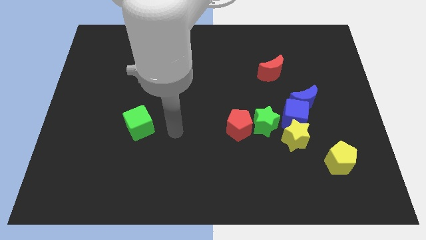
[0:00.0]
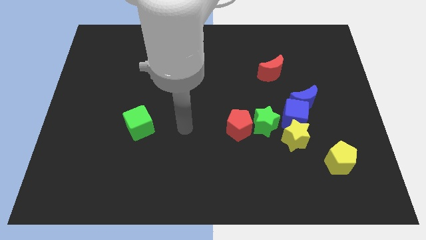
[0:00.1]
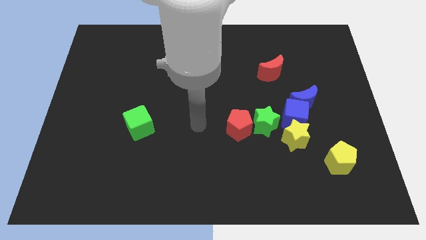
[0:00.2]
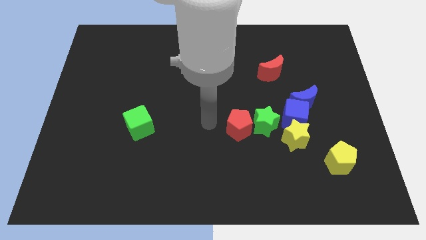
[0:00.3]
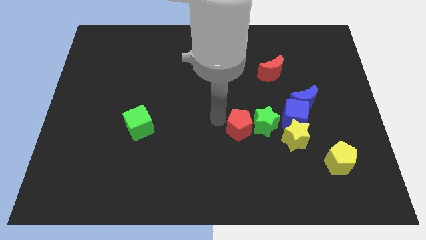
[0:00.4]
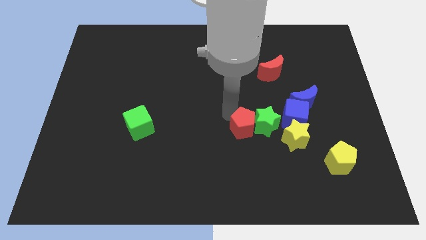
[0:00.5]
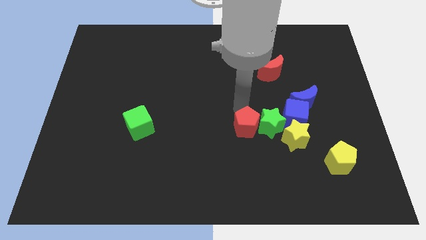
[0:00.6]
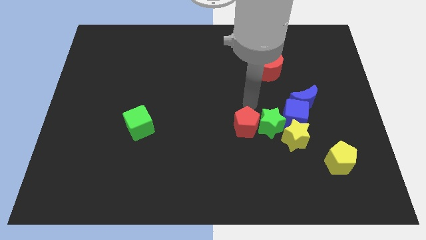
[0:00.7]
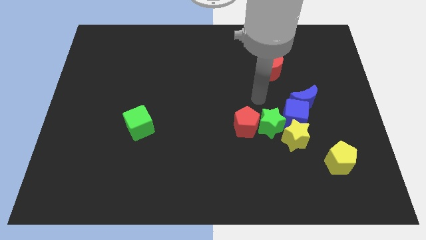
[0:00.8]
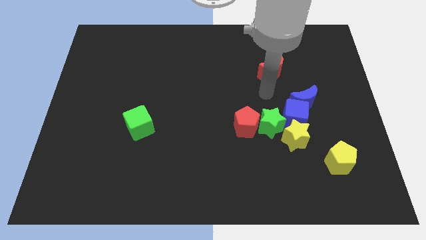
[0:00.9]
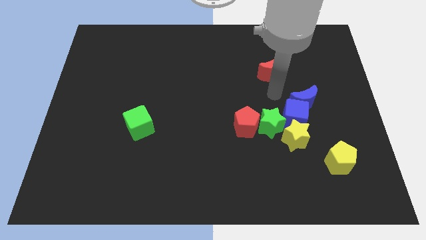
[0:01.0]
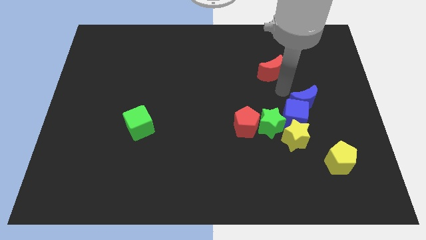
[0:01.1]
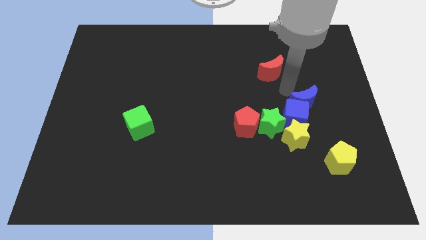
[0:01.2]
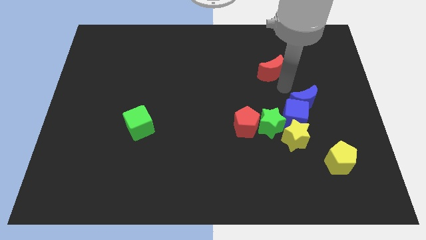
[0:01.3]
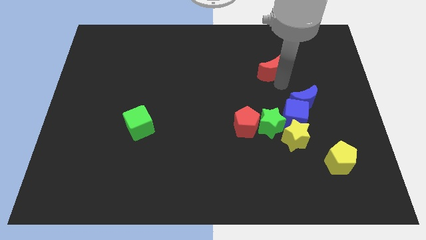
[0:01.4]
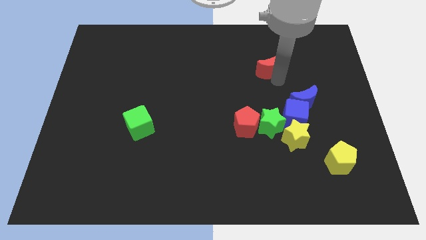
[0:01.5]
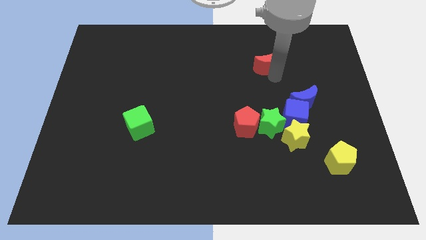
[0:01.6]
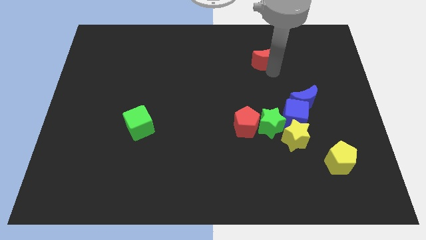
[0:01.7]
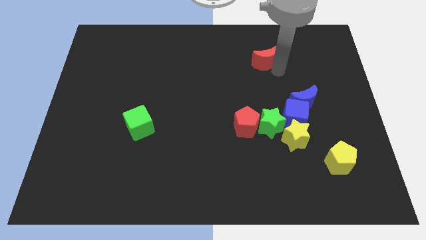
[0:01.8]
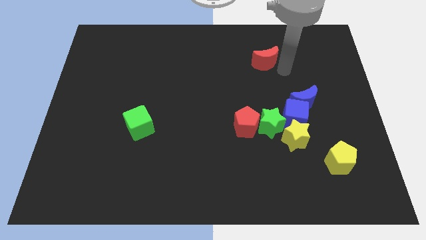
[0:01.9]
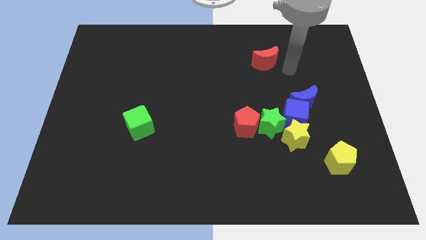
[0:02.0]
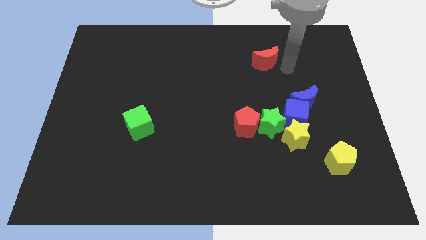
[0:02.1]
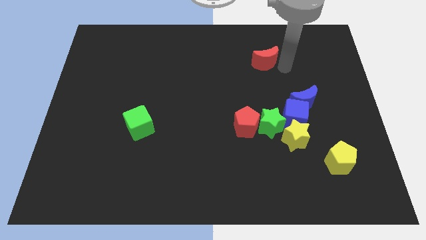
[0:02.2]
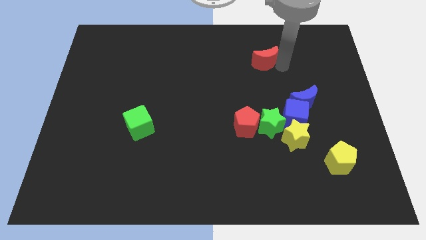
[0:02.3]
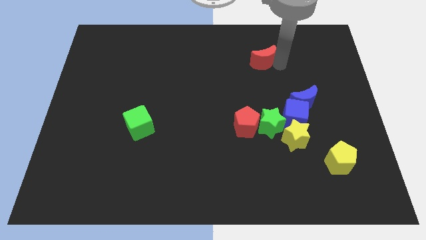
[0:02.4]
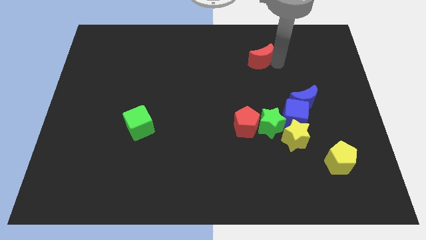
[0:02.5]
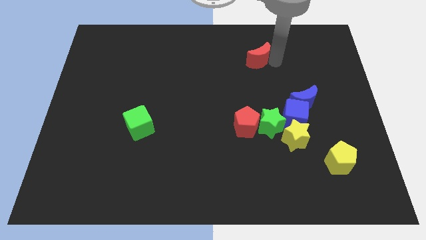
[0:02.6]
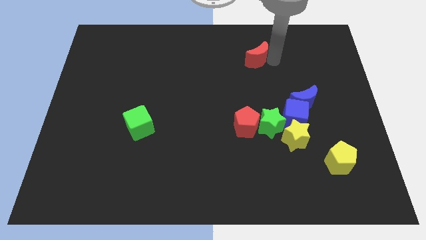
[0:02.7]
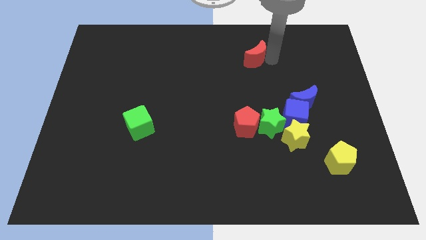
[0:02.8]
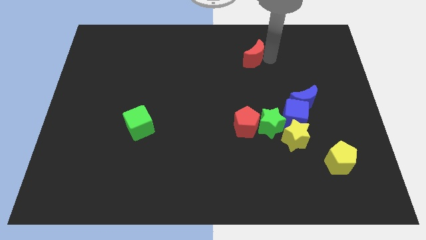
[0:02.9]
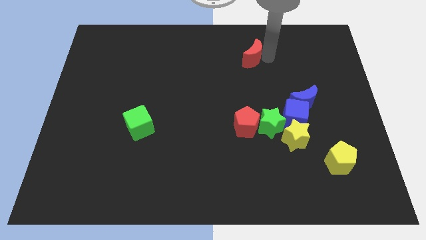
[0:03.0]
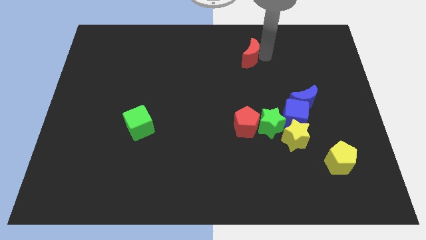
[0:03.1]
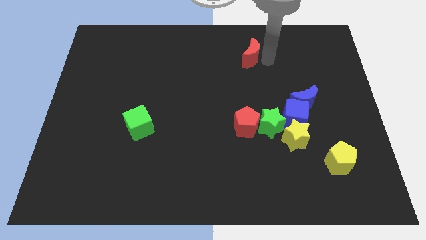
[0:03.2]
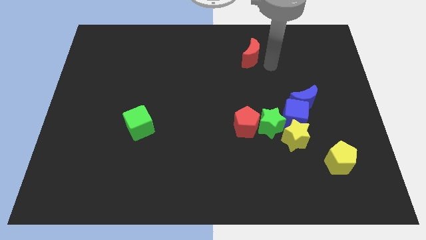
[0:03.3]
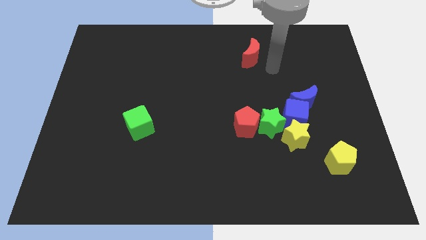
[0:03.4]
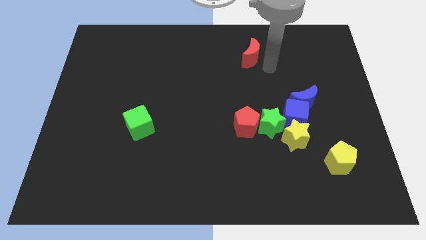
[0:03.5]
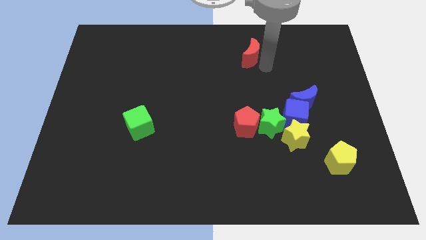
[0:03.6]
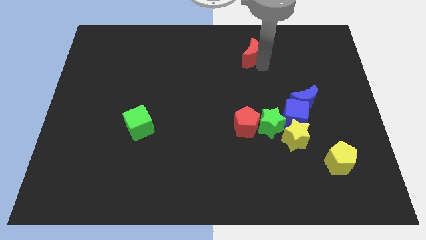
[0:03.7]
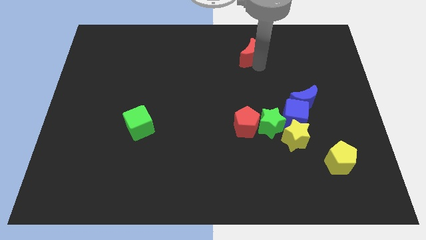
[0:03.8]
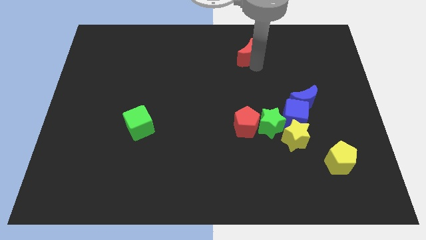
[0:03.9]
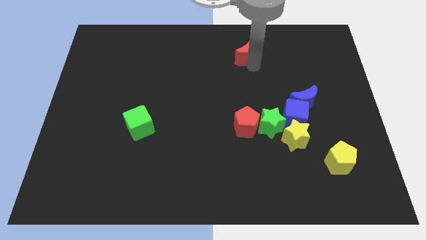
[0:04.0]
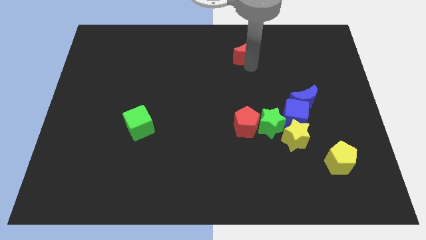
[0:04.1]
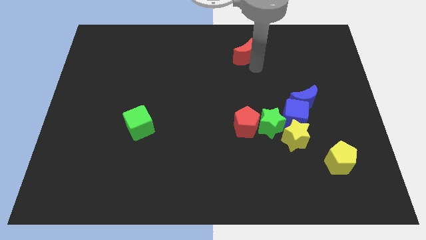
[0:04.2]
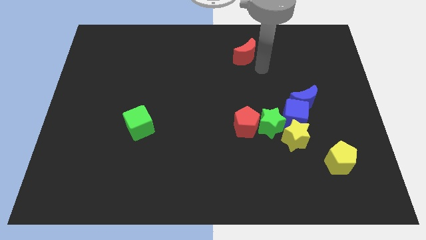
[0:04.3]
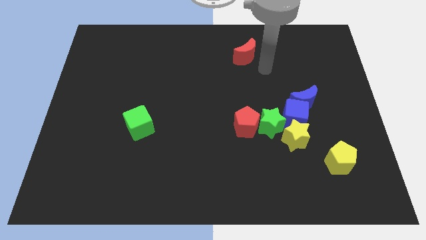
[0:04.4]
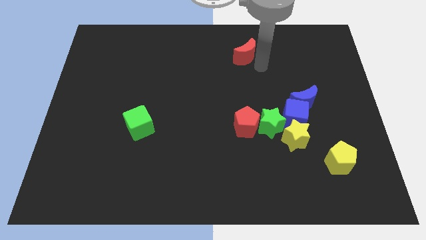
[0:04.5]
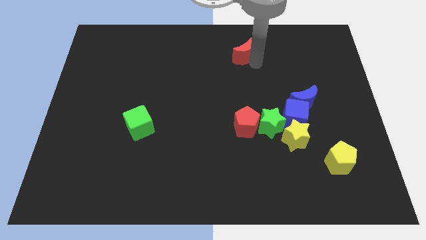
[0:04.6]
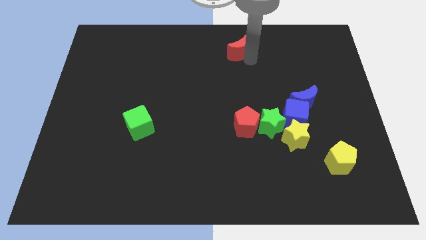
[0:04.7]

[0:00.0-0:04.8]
move the red moon to the towards your base

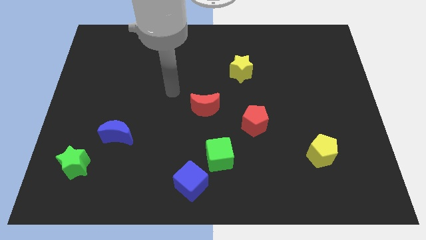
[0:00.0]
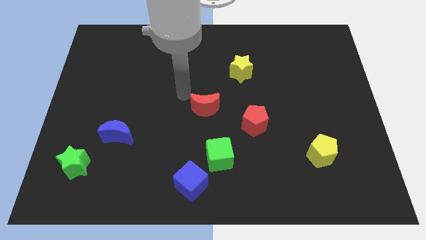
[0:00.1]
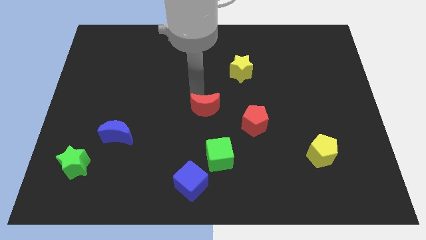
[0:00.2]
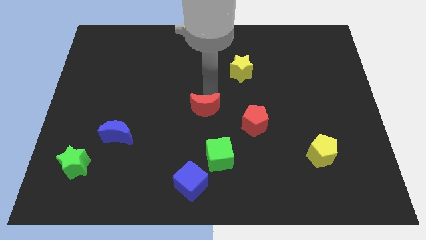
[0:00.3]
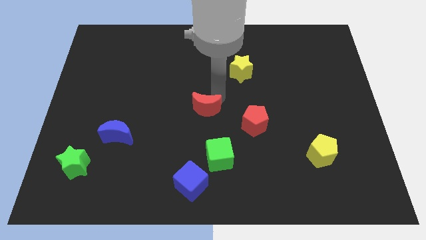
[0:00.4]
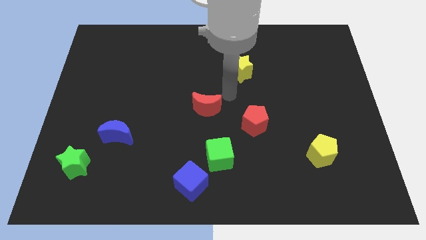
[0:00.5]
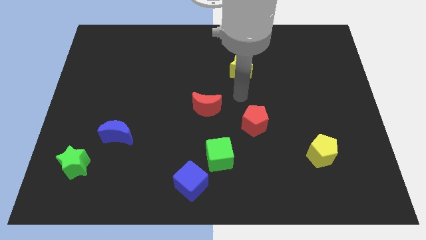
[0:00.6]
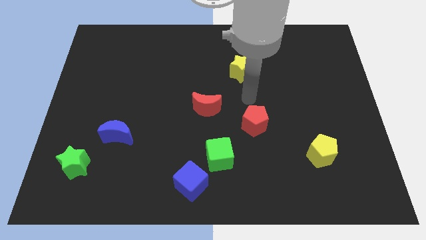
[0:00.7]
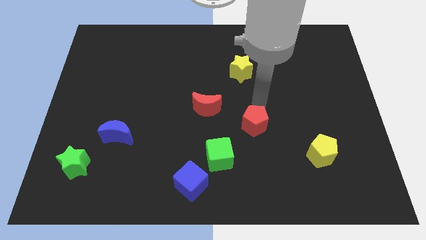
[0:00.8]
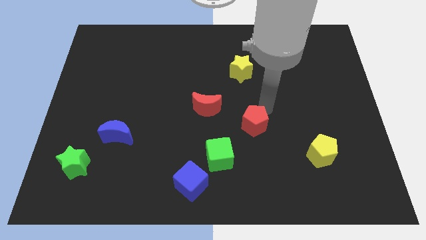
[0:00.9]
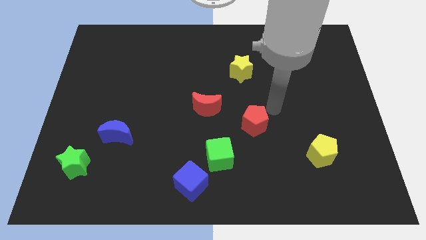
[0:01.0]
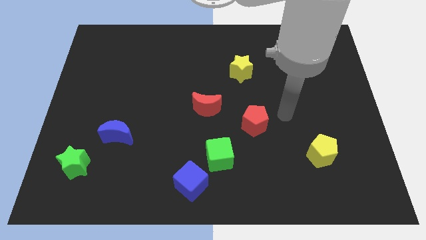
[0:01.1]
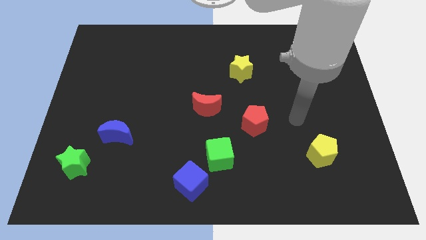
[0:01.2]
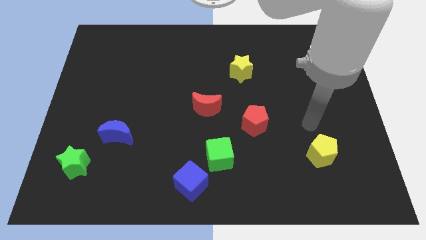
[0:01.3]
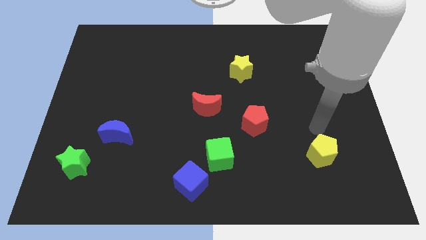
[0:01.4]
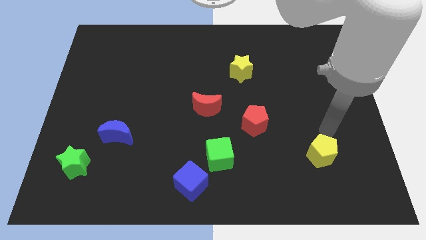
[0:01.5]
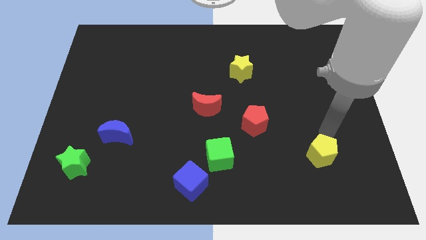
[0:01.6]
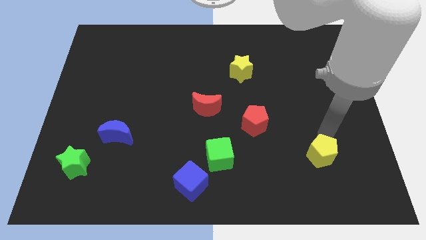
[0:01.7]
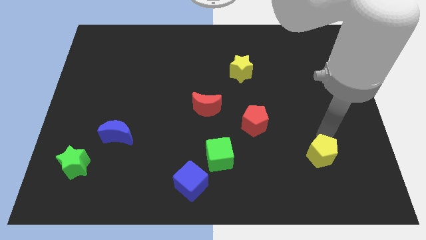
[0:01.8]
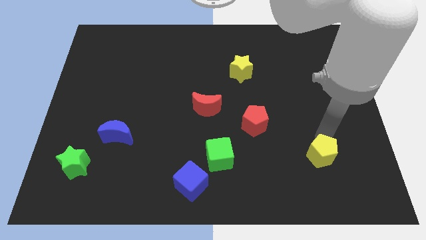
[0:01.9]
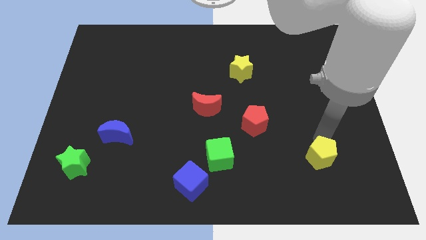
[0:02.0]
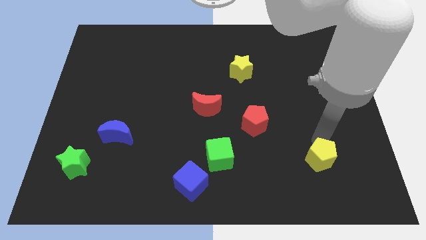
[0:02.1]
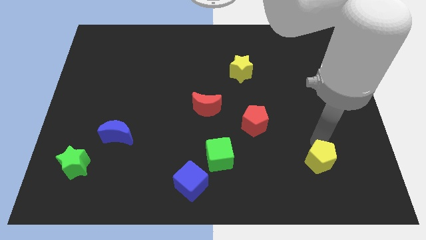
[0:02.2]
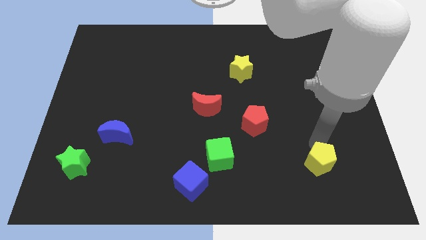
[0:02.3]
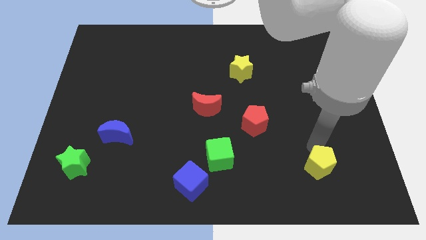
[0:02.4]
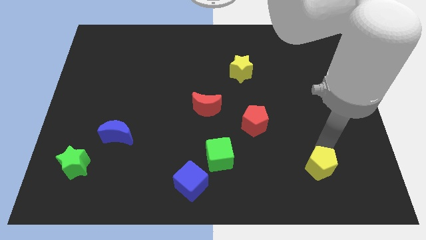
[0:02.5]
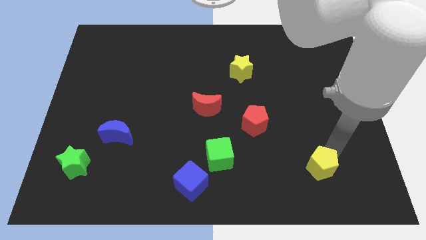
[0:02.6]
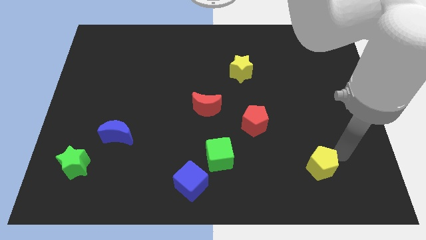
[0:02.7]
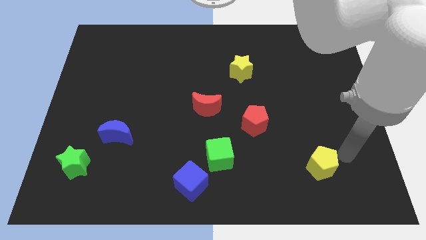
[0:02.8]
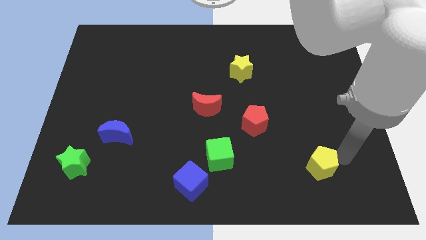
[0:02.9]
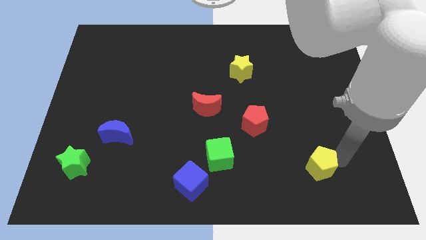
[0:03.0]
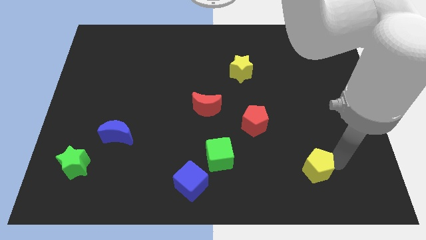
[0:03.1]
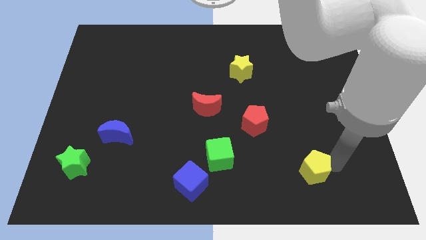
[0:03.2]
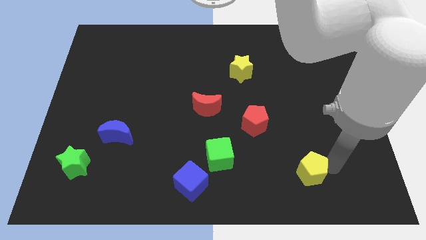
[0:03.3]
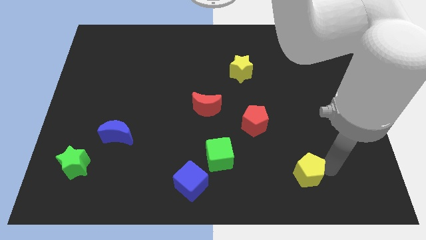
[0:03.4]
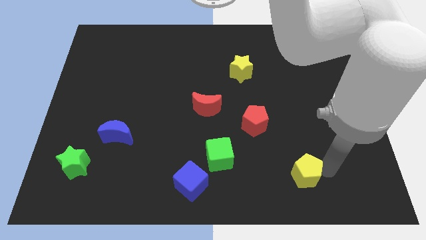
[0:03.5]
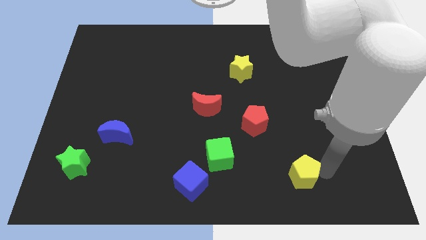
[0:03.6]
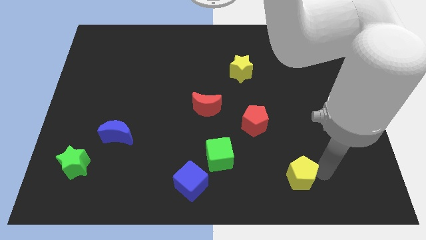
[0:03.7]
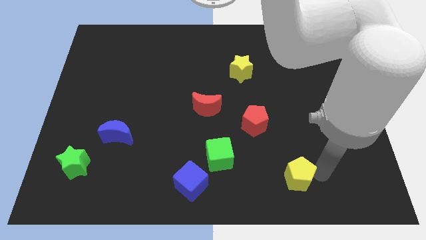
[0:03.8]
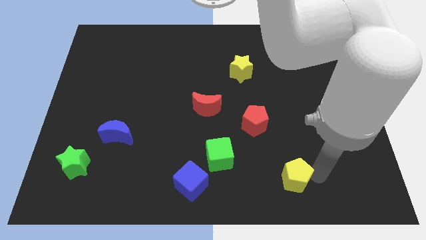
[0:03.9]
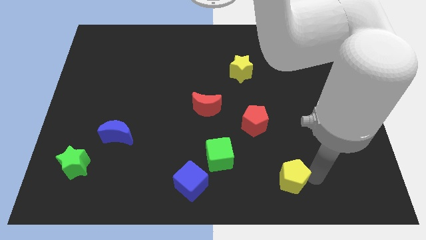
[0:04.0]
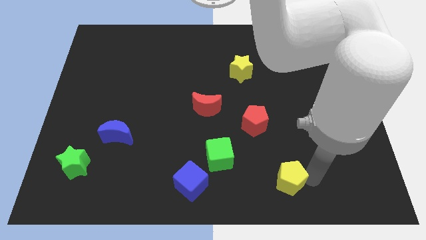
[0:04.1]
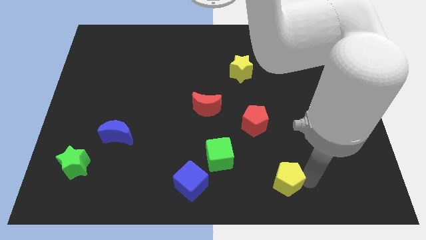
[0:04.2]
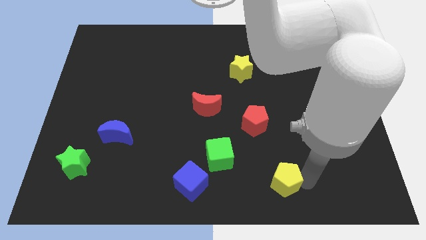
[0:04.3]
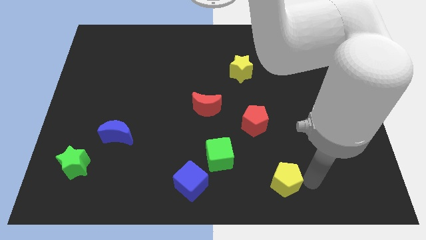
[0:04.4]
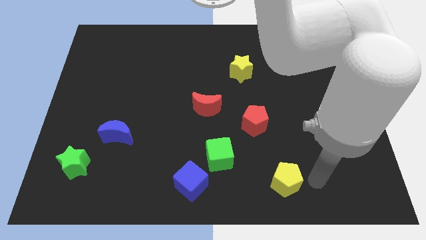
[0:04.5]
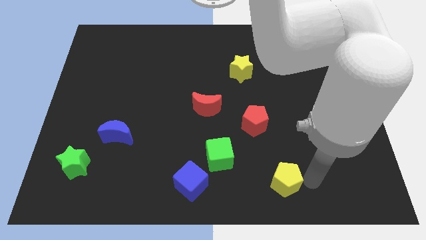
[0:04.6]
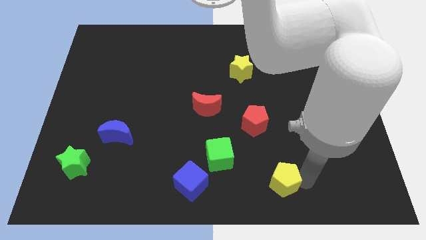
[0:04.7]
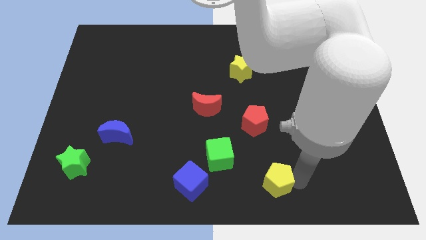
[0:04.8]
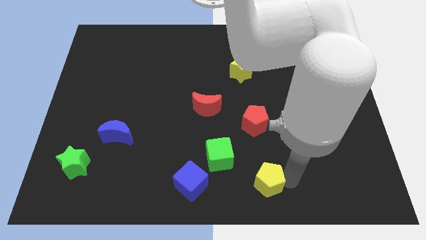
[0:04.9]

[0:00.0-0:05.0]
put the yellow pentagon to the bottom side
